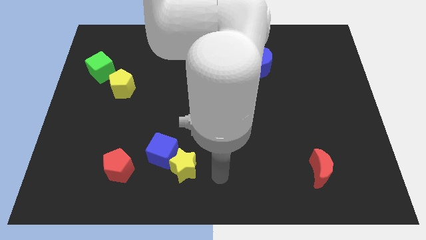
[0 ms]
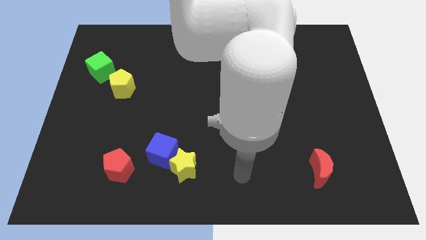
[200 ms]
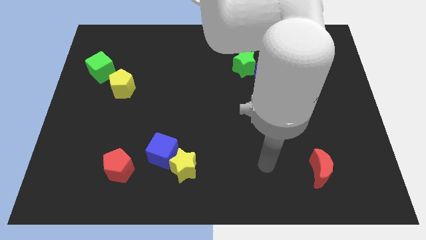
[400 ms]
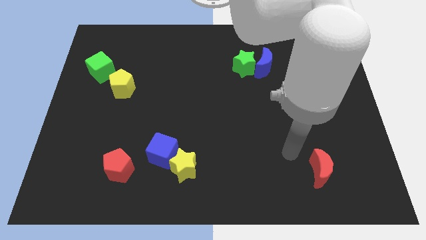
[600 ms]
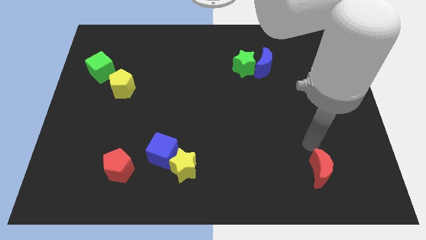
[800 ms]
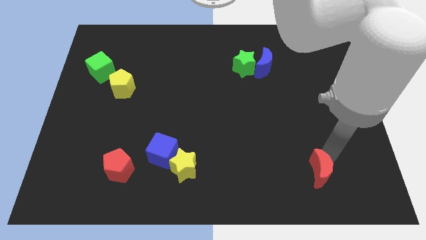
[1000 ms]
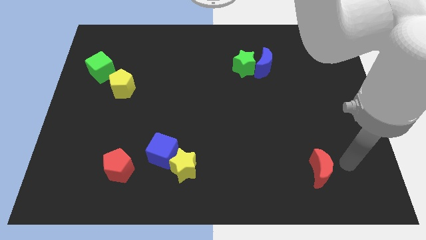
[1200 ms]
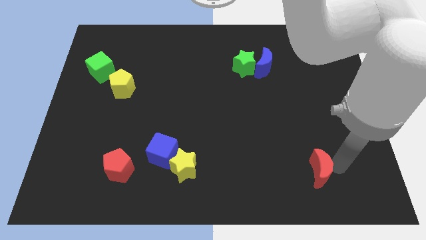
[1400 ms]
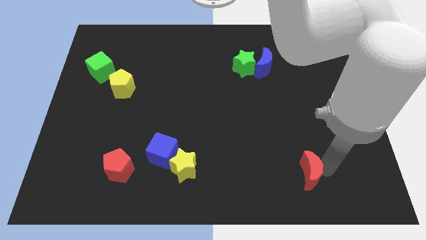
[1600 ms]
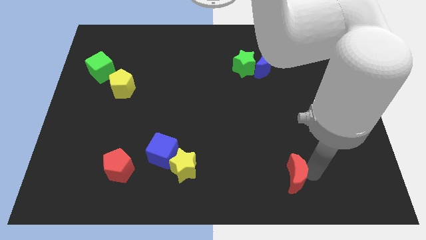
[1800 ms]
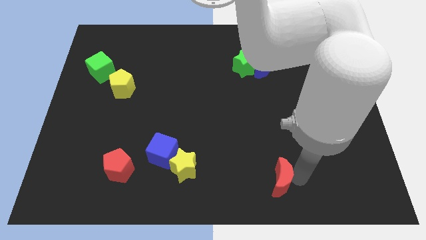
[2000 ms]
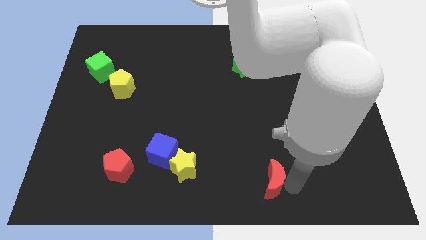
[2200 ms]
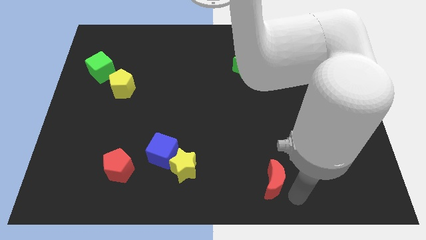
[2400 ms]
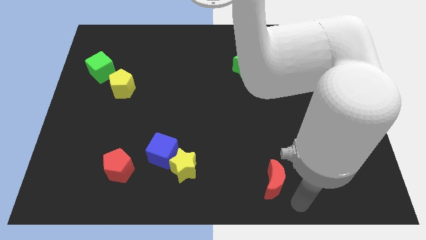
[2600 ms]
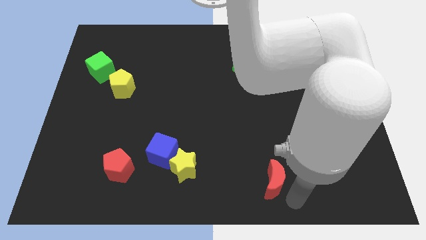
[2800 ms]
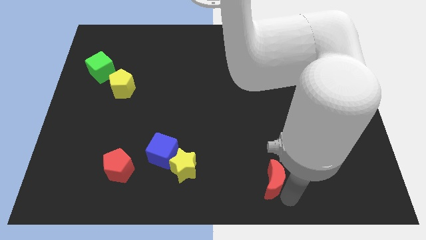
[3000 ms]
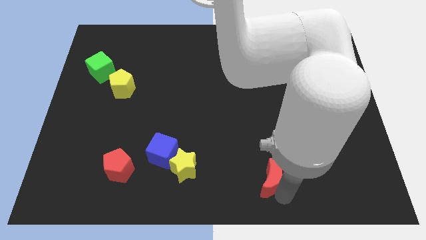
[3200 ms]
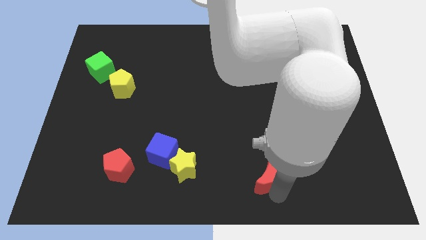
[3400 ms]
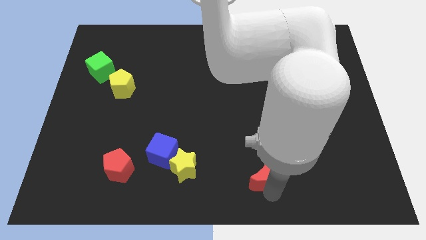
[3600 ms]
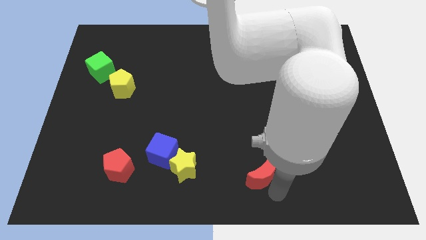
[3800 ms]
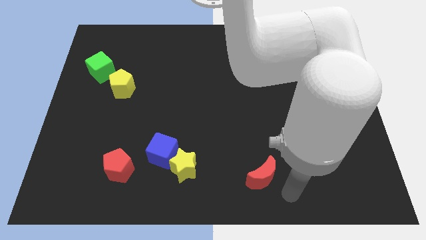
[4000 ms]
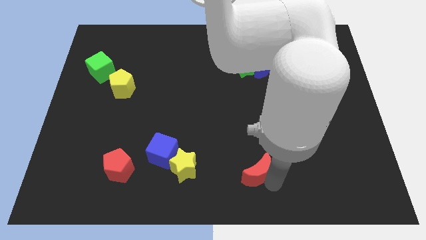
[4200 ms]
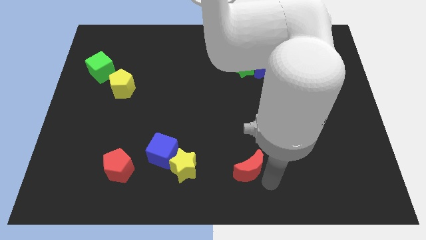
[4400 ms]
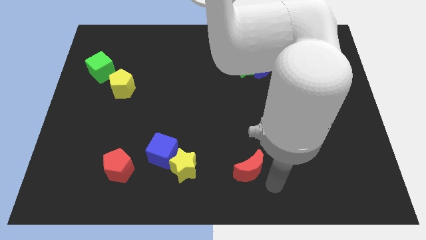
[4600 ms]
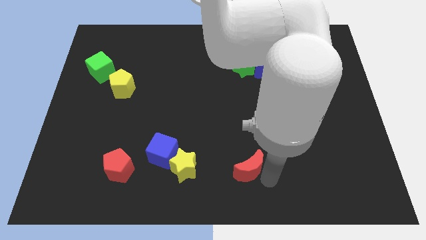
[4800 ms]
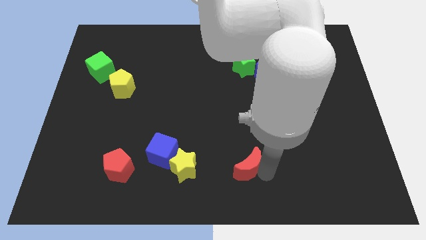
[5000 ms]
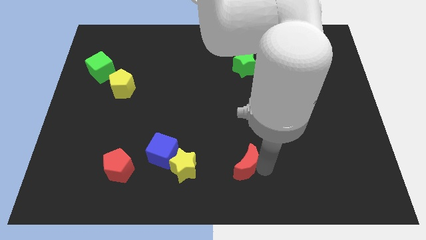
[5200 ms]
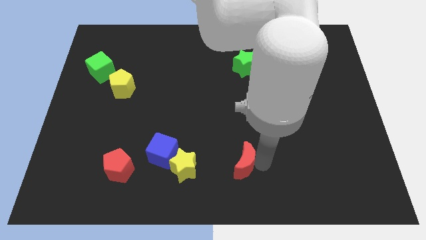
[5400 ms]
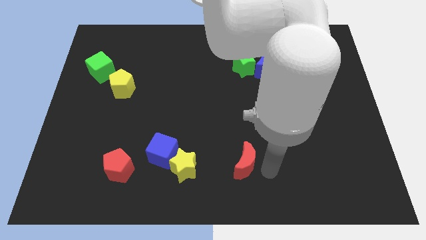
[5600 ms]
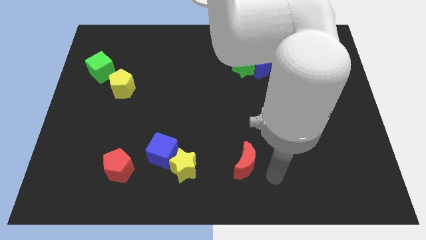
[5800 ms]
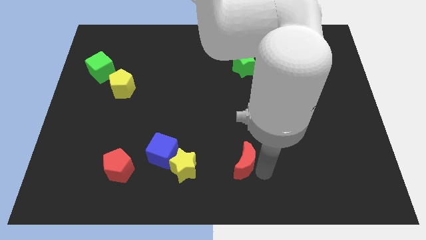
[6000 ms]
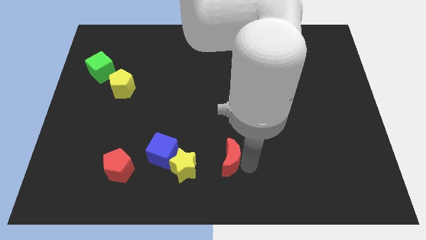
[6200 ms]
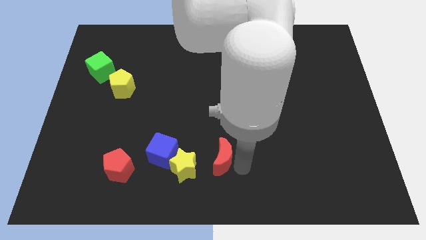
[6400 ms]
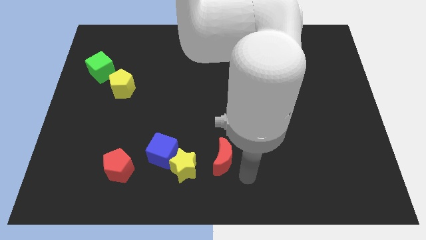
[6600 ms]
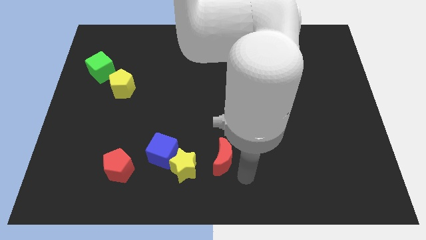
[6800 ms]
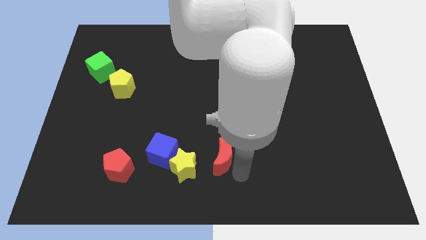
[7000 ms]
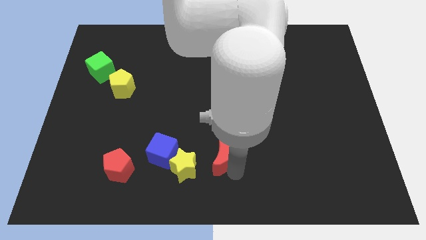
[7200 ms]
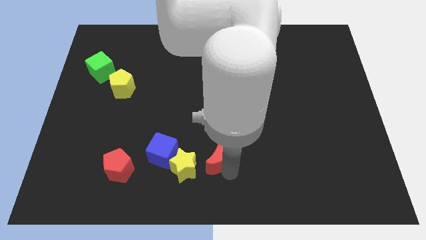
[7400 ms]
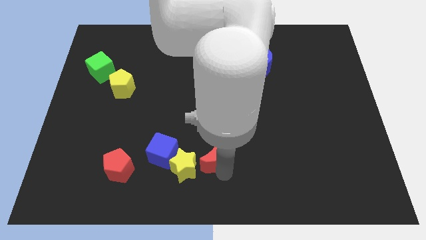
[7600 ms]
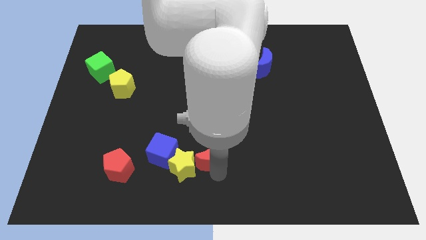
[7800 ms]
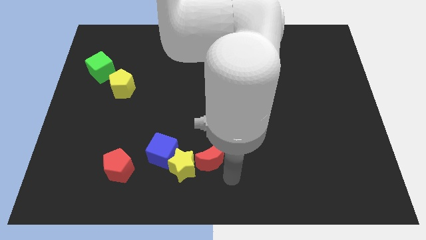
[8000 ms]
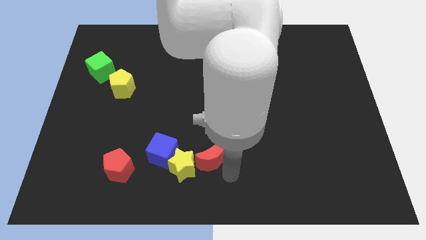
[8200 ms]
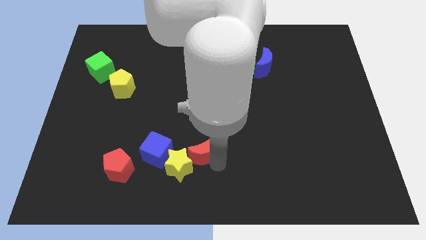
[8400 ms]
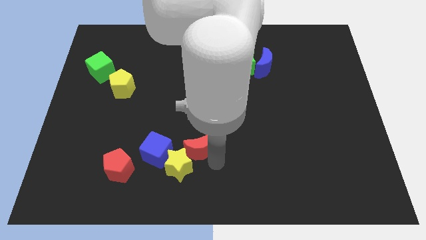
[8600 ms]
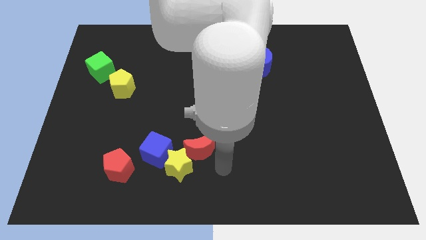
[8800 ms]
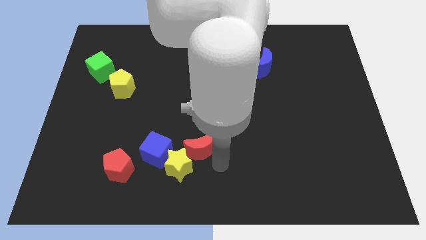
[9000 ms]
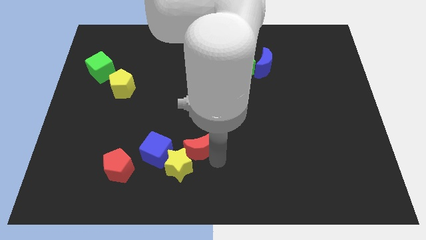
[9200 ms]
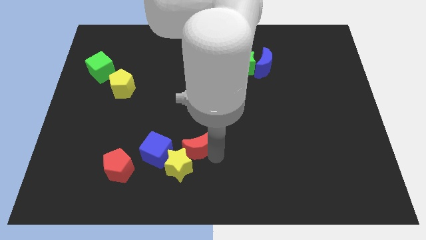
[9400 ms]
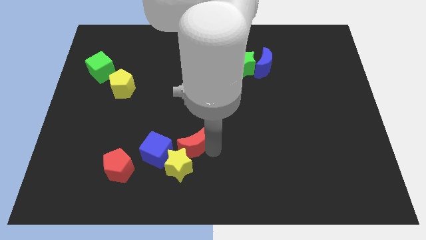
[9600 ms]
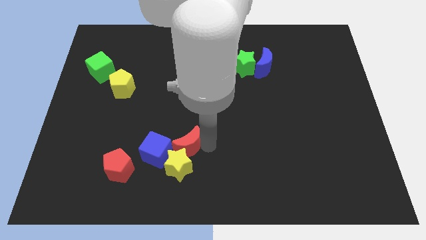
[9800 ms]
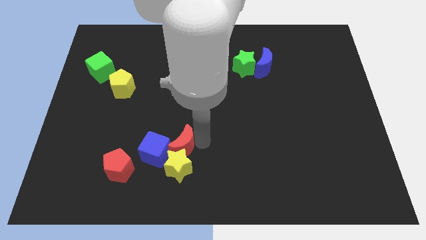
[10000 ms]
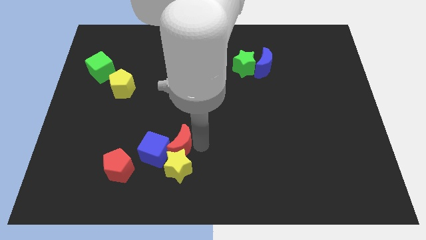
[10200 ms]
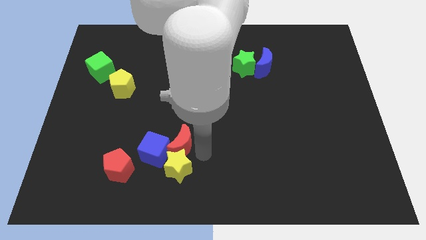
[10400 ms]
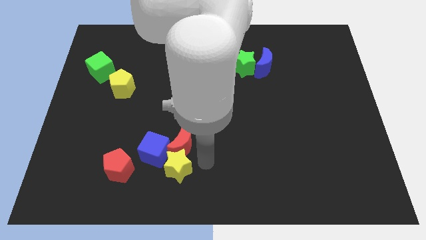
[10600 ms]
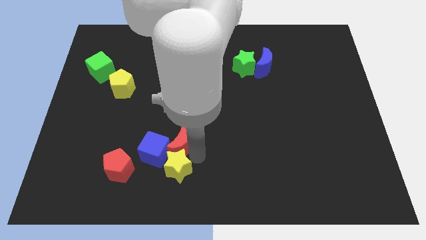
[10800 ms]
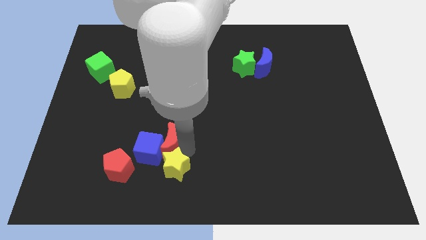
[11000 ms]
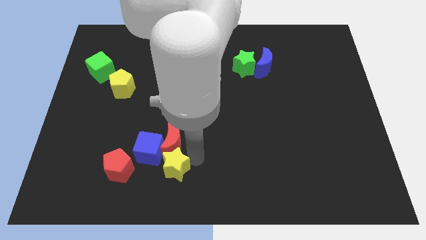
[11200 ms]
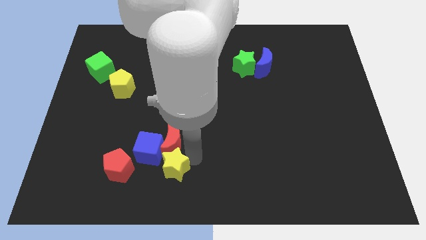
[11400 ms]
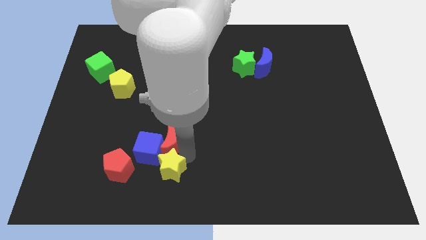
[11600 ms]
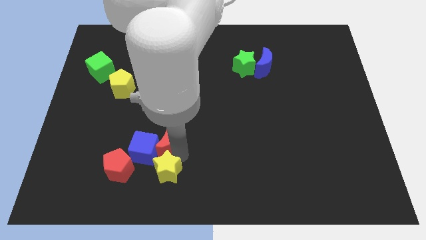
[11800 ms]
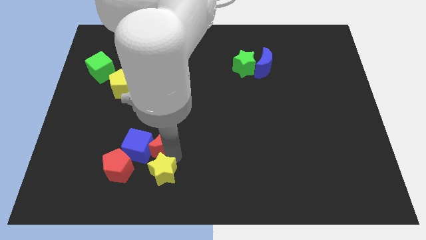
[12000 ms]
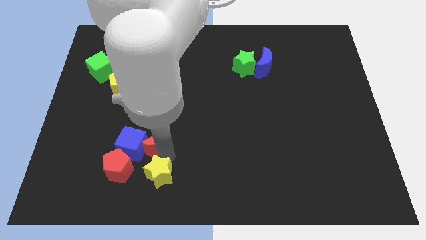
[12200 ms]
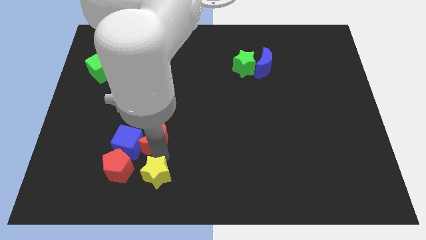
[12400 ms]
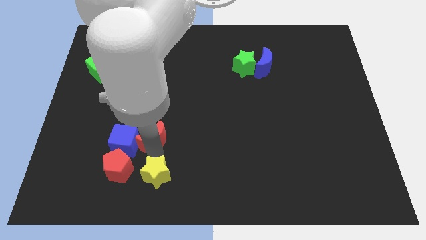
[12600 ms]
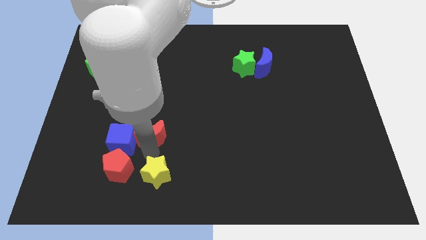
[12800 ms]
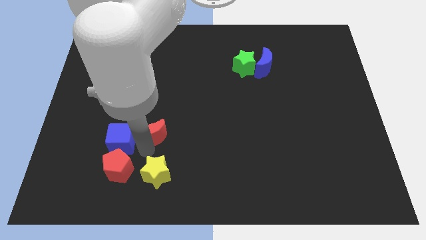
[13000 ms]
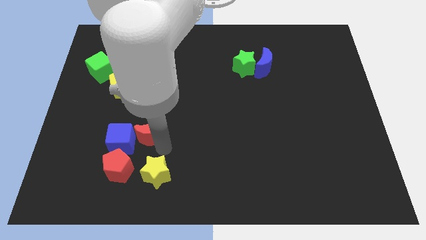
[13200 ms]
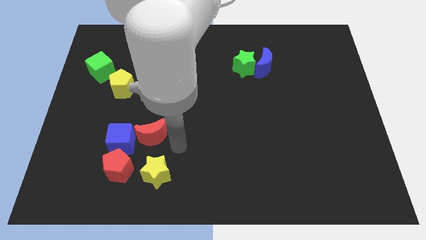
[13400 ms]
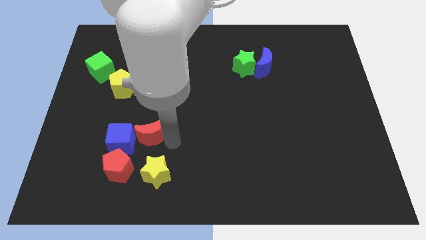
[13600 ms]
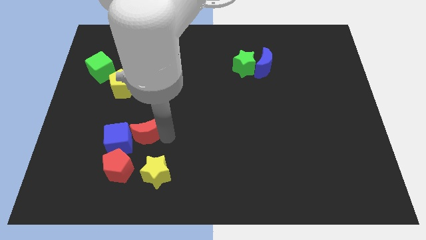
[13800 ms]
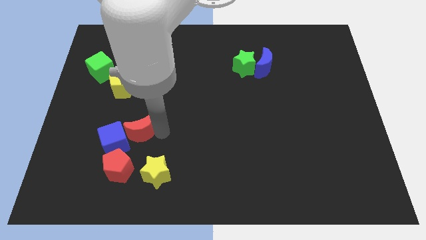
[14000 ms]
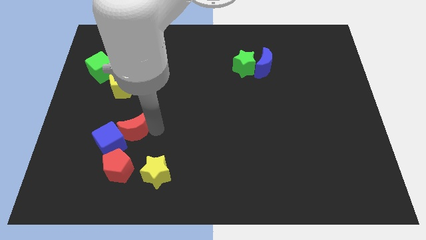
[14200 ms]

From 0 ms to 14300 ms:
move the red moon to the bottom of the yellow pentagon

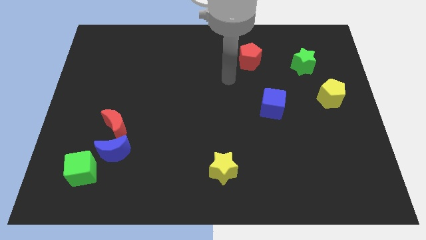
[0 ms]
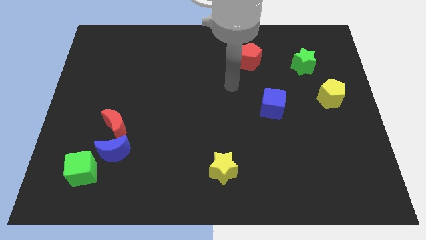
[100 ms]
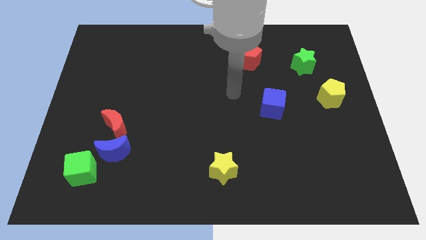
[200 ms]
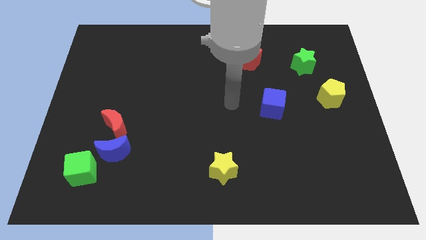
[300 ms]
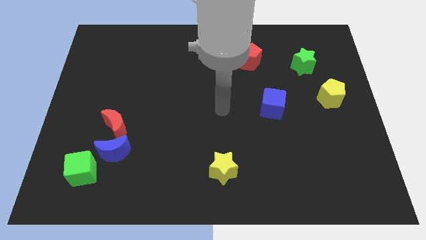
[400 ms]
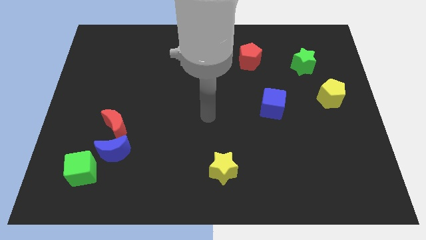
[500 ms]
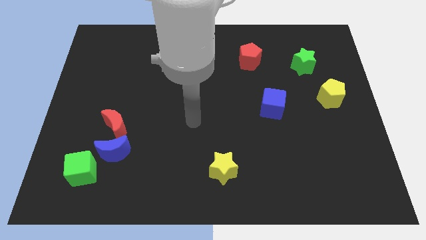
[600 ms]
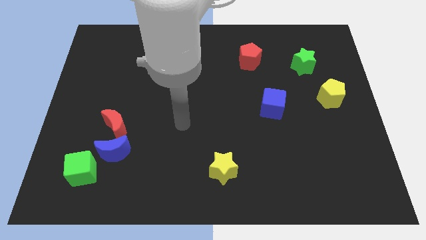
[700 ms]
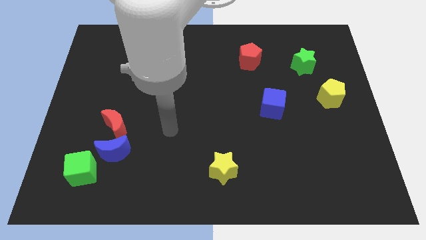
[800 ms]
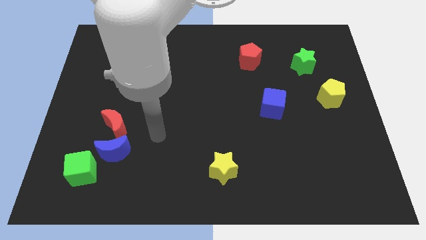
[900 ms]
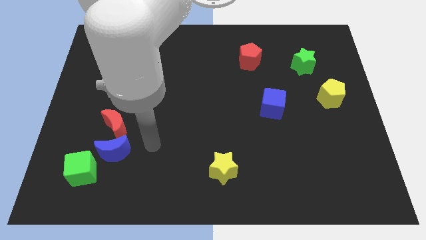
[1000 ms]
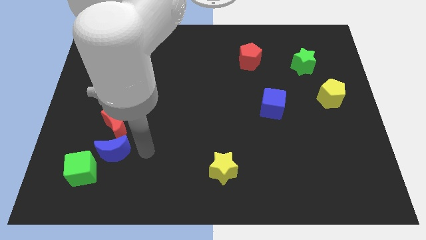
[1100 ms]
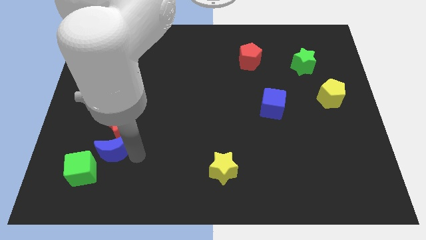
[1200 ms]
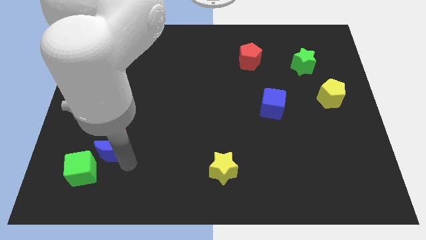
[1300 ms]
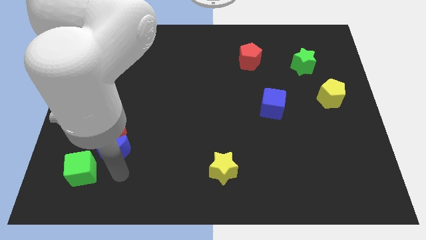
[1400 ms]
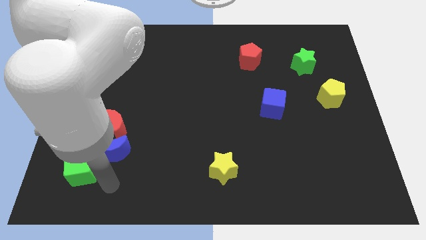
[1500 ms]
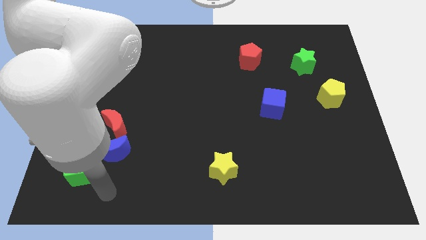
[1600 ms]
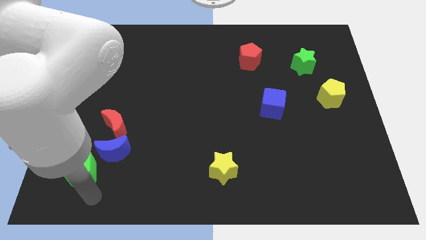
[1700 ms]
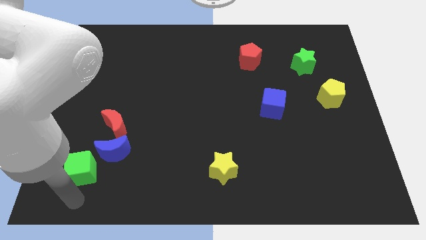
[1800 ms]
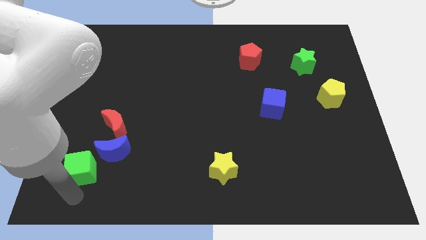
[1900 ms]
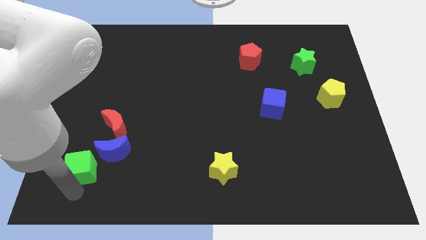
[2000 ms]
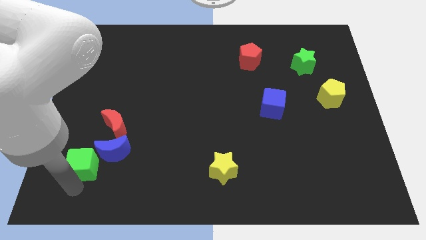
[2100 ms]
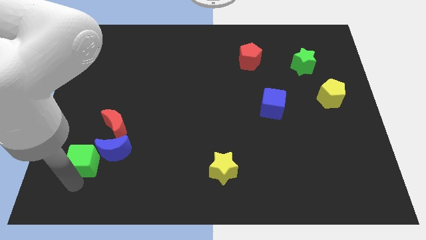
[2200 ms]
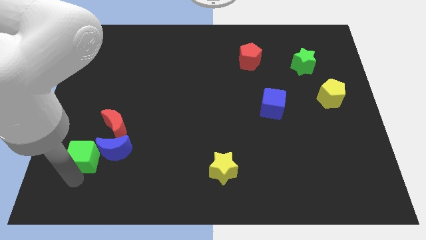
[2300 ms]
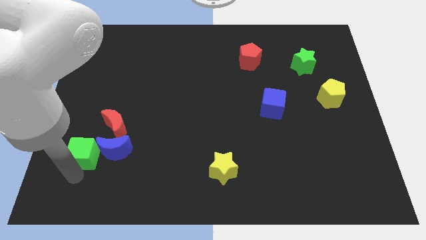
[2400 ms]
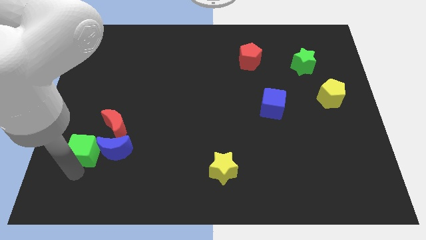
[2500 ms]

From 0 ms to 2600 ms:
put the green cube to the top left side of the blue moon
